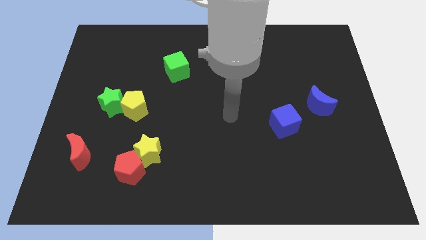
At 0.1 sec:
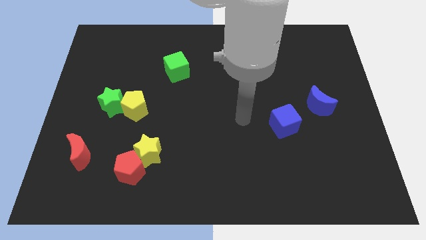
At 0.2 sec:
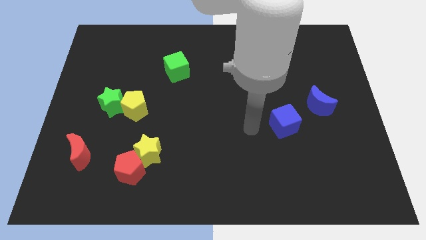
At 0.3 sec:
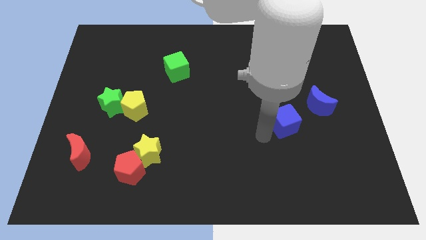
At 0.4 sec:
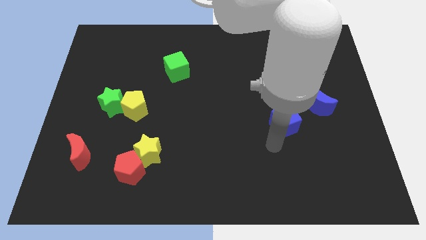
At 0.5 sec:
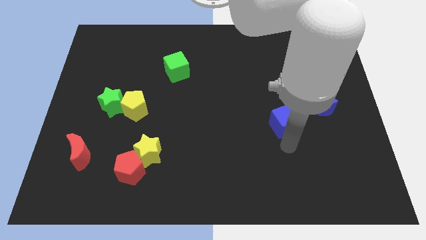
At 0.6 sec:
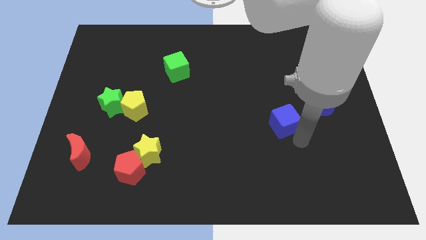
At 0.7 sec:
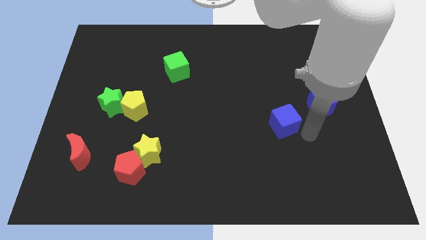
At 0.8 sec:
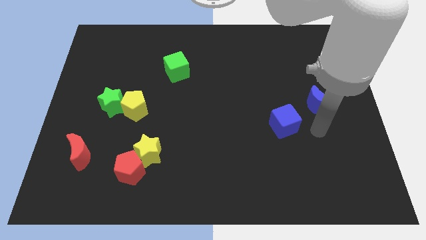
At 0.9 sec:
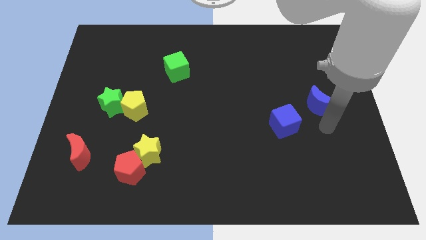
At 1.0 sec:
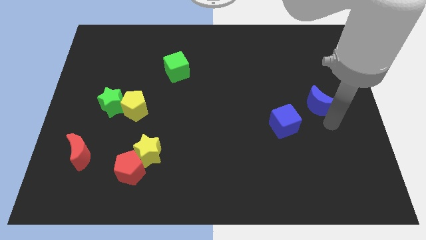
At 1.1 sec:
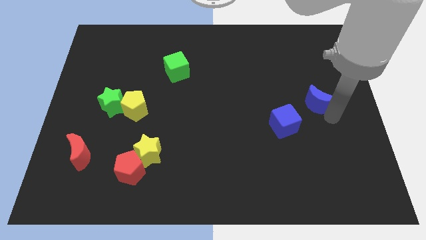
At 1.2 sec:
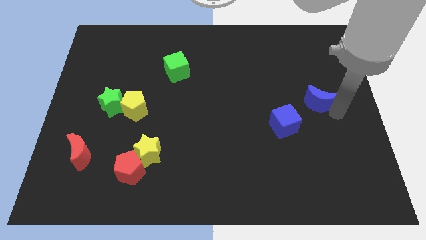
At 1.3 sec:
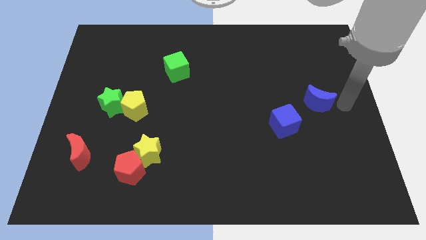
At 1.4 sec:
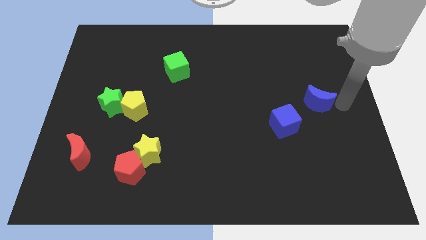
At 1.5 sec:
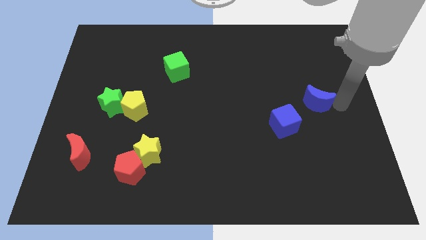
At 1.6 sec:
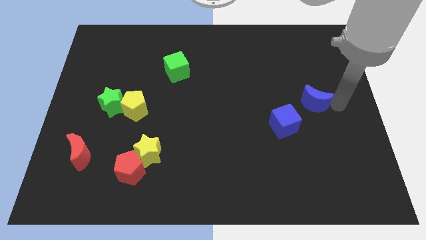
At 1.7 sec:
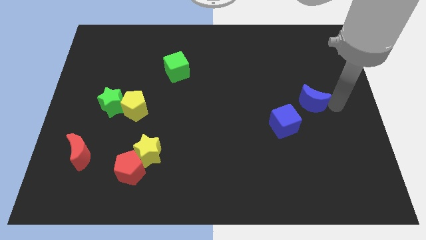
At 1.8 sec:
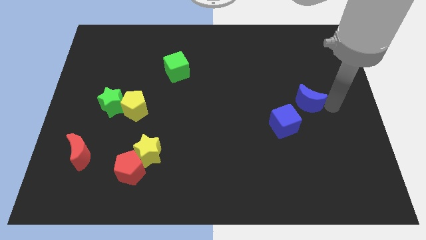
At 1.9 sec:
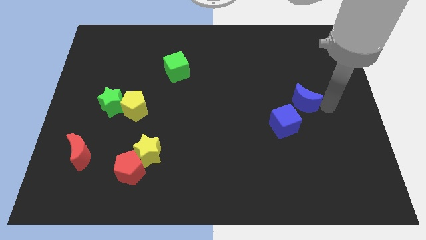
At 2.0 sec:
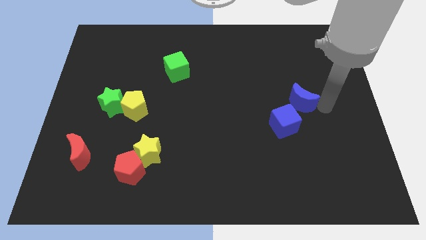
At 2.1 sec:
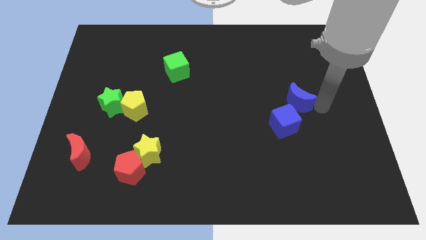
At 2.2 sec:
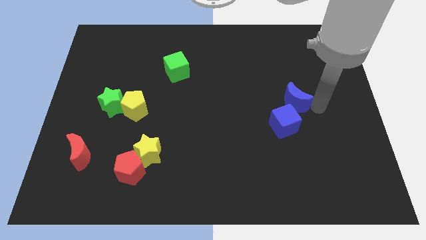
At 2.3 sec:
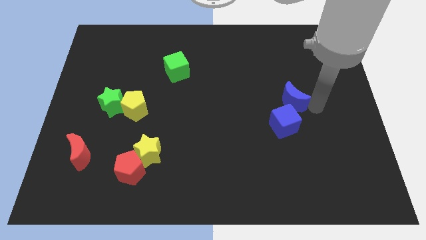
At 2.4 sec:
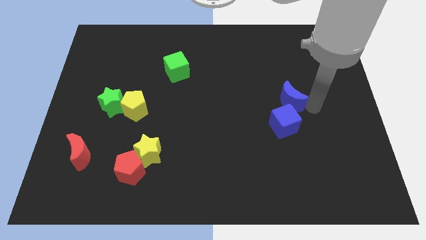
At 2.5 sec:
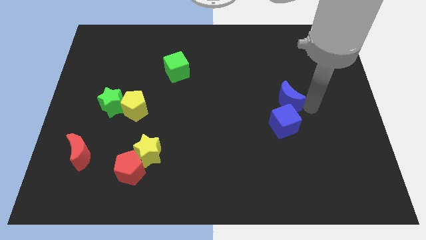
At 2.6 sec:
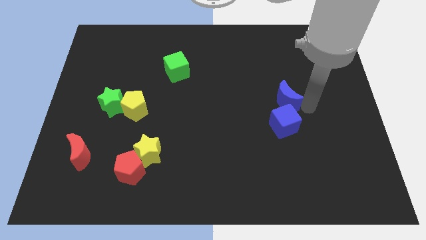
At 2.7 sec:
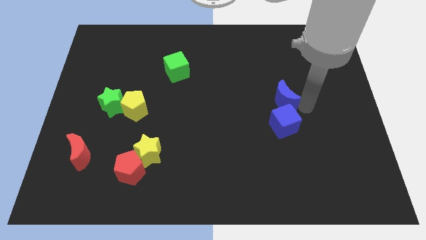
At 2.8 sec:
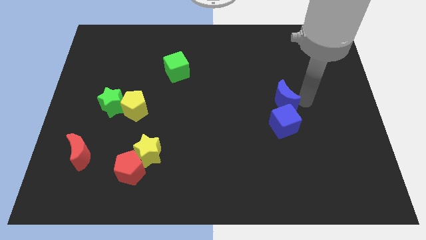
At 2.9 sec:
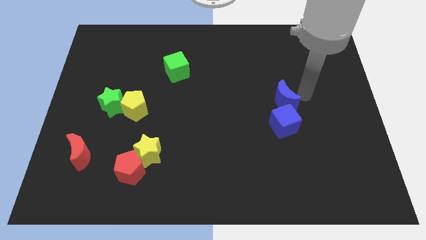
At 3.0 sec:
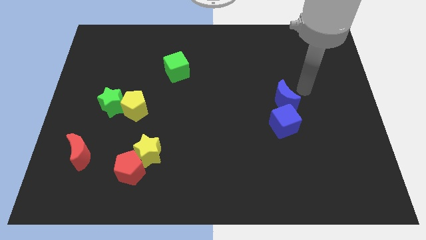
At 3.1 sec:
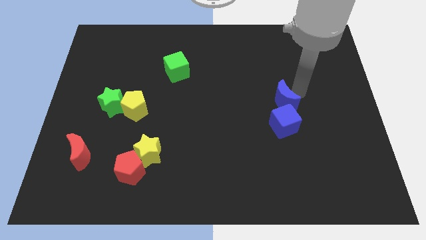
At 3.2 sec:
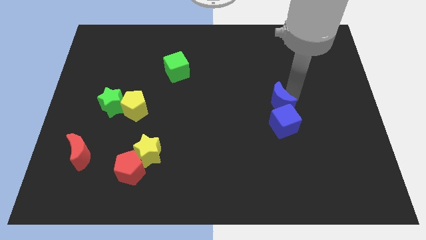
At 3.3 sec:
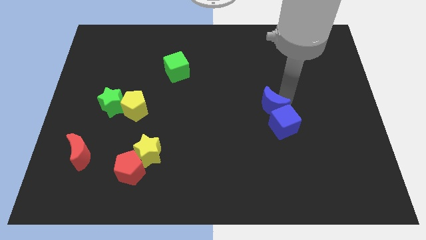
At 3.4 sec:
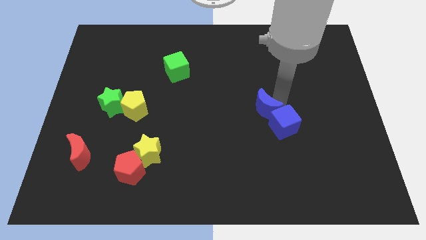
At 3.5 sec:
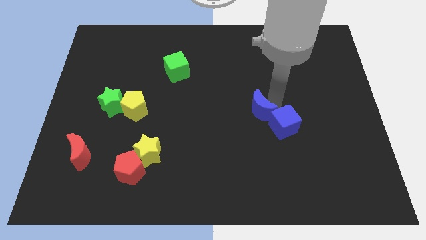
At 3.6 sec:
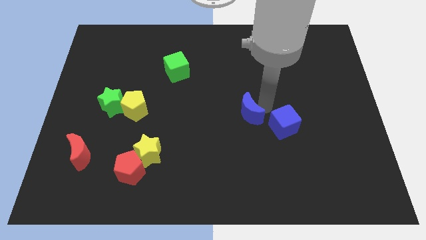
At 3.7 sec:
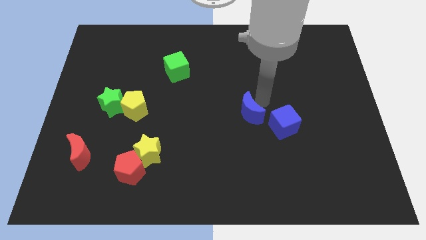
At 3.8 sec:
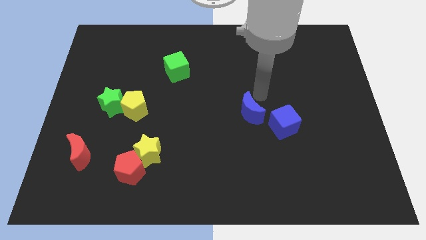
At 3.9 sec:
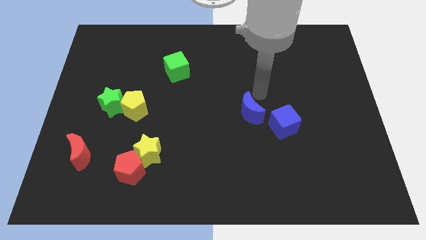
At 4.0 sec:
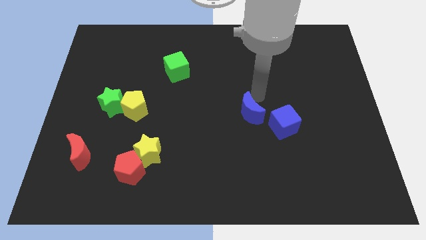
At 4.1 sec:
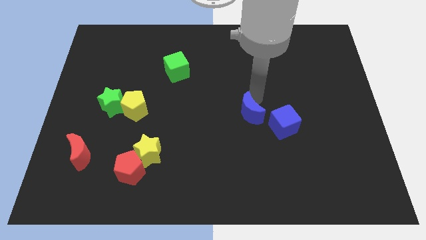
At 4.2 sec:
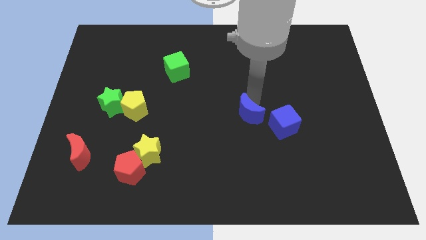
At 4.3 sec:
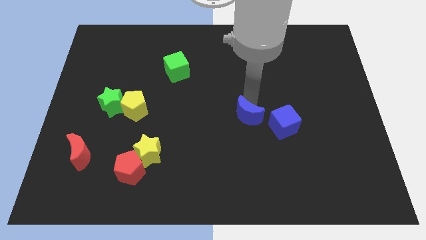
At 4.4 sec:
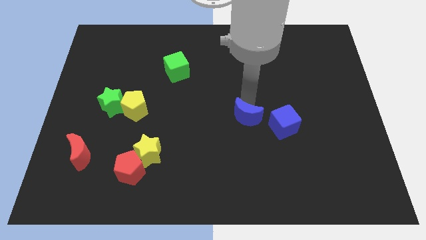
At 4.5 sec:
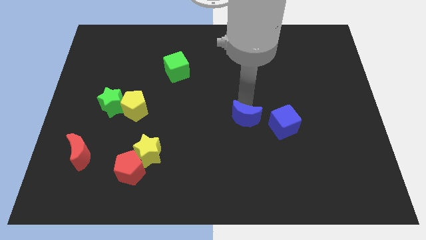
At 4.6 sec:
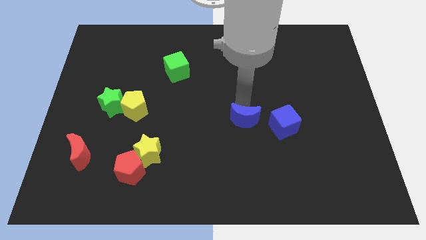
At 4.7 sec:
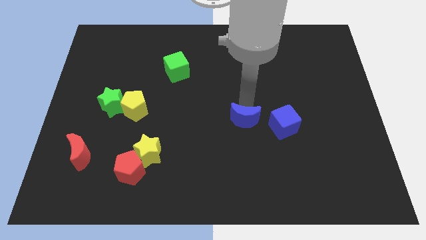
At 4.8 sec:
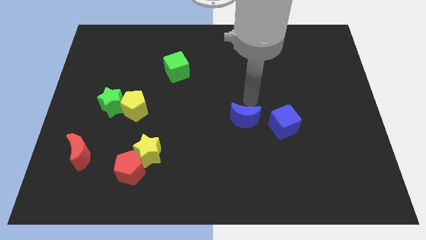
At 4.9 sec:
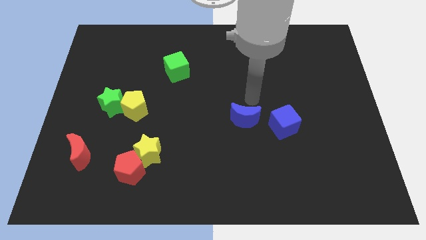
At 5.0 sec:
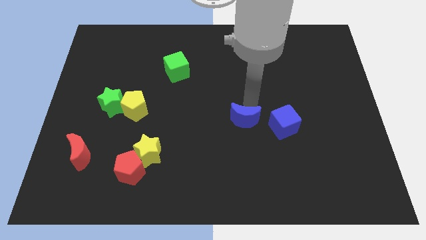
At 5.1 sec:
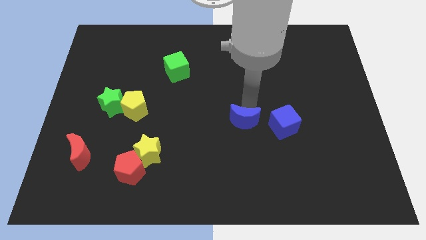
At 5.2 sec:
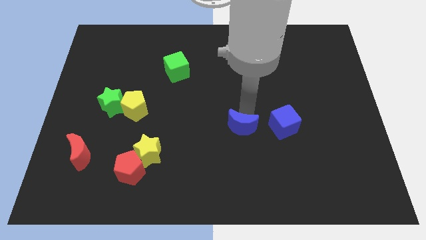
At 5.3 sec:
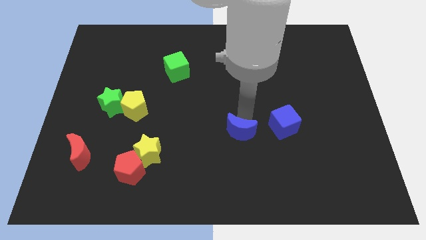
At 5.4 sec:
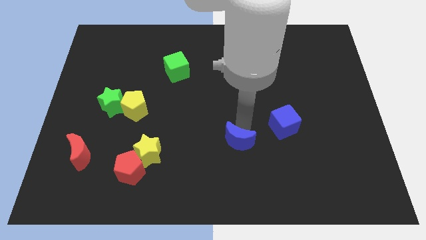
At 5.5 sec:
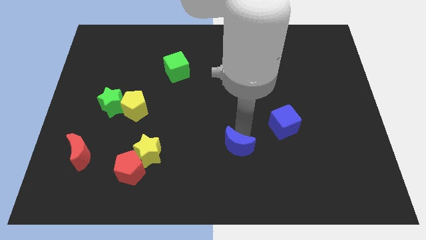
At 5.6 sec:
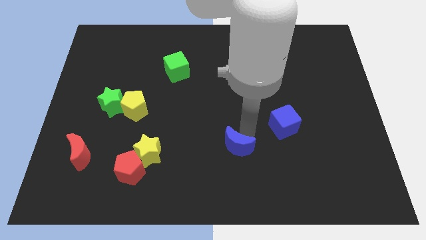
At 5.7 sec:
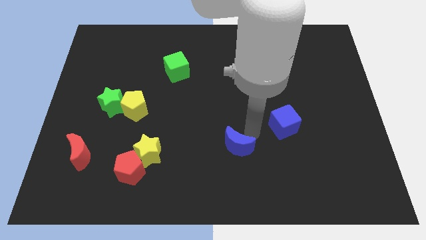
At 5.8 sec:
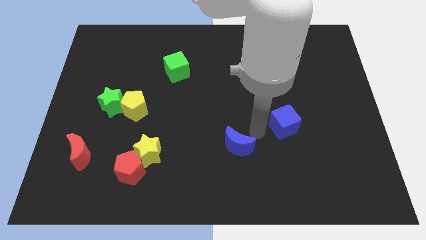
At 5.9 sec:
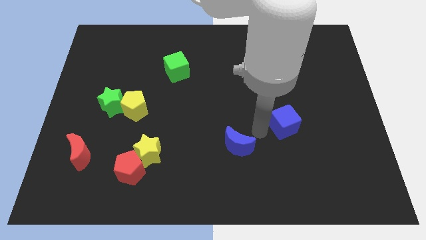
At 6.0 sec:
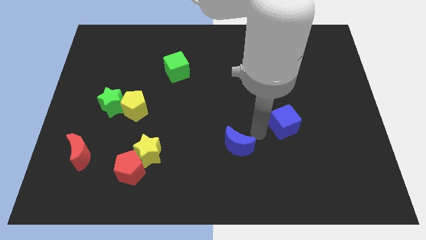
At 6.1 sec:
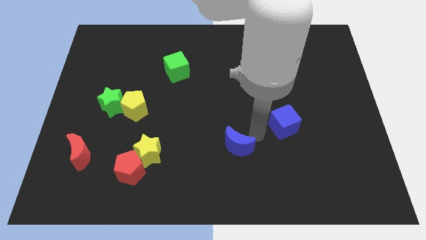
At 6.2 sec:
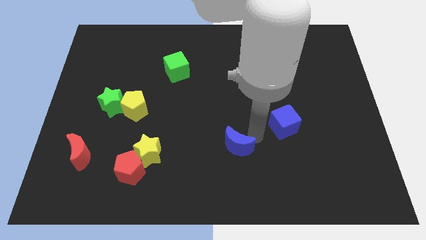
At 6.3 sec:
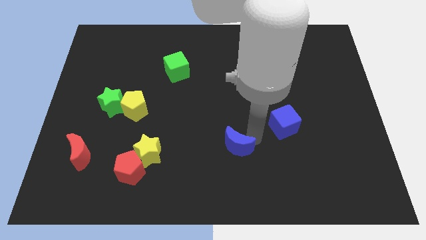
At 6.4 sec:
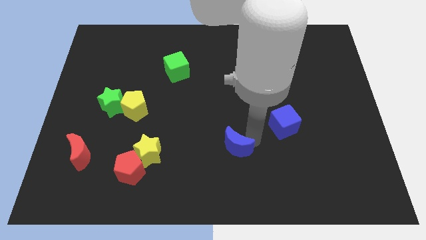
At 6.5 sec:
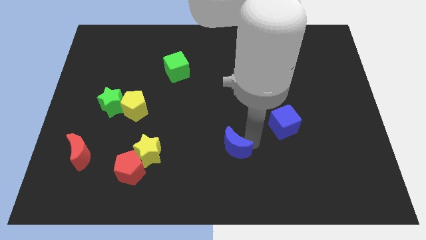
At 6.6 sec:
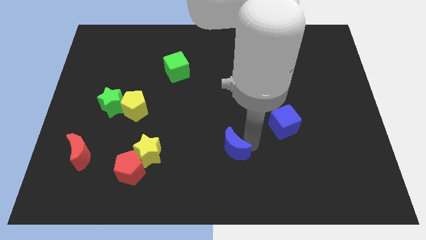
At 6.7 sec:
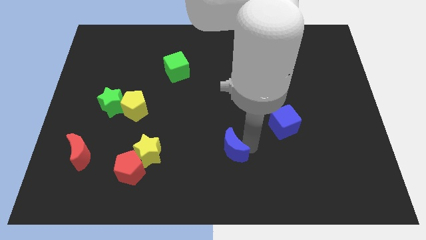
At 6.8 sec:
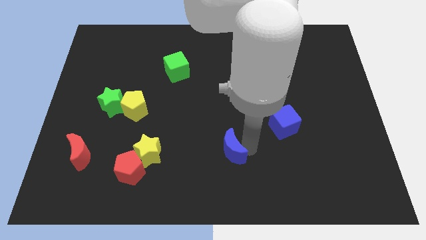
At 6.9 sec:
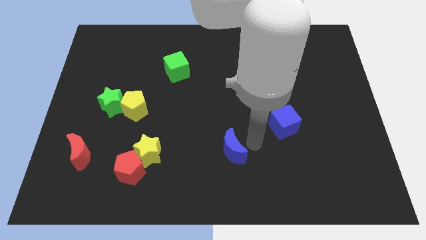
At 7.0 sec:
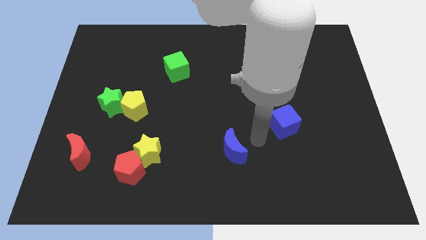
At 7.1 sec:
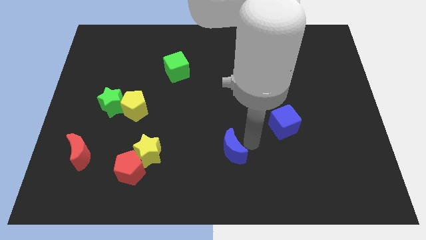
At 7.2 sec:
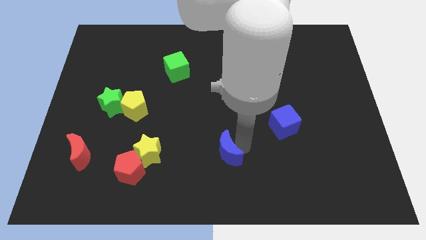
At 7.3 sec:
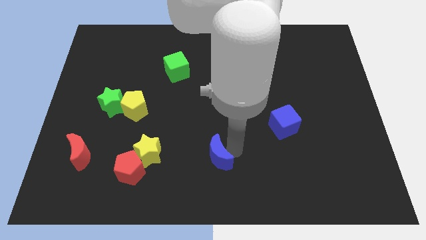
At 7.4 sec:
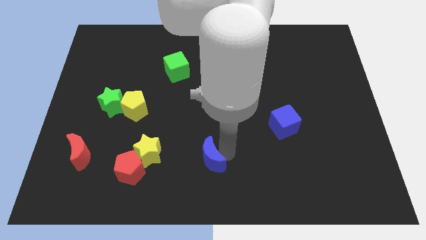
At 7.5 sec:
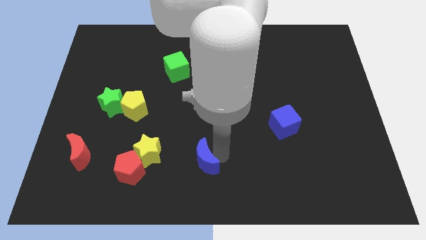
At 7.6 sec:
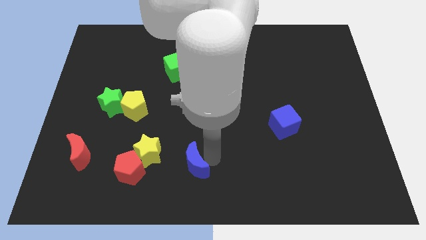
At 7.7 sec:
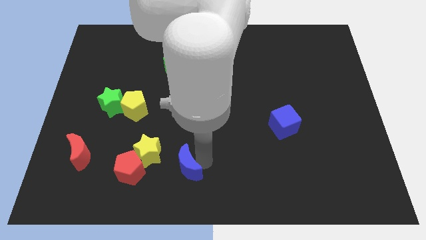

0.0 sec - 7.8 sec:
slide the blue moon to the bottom right of the yellow star
